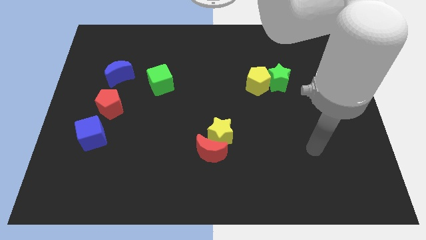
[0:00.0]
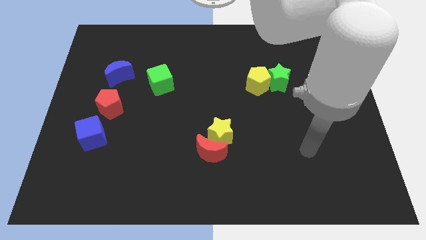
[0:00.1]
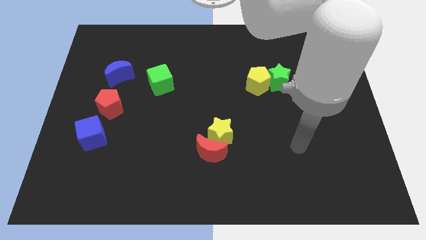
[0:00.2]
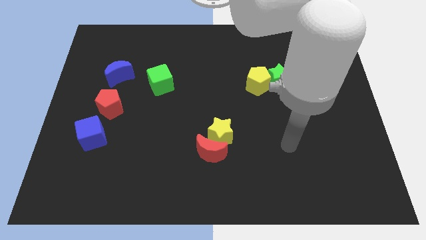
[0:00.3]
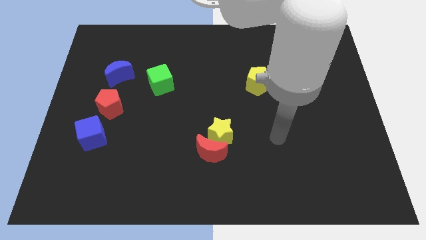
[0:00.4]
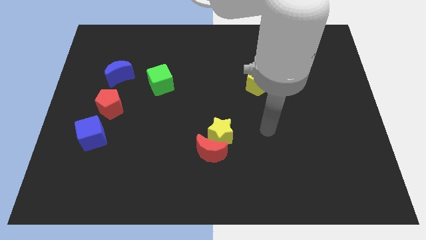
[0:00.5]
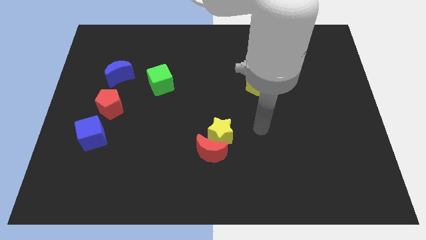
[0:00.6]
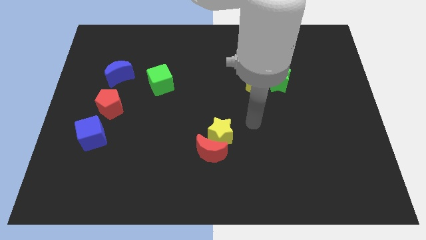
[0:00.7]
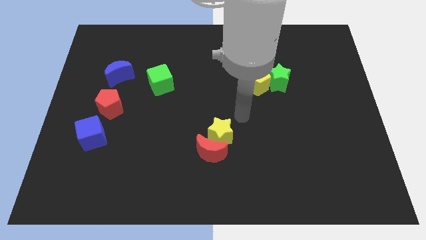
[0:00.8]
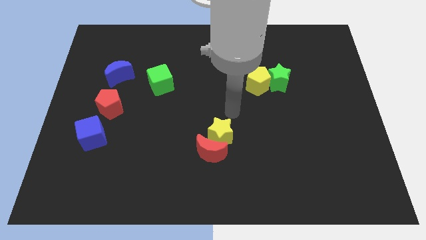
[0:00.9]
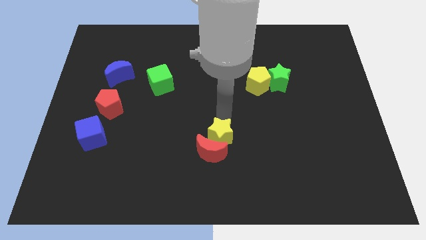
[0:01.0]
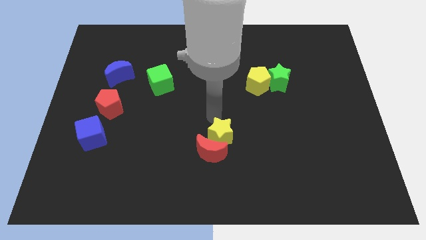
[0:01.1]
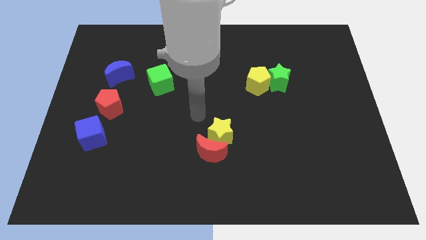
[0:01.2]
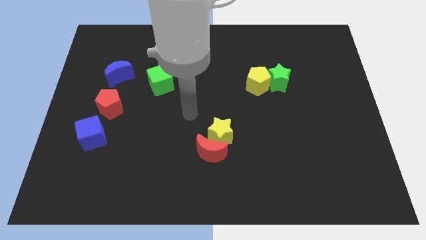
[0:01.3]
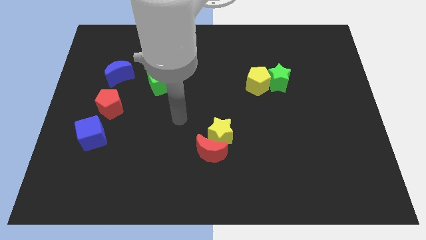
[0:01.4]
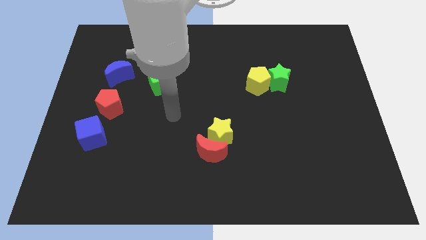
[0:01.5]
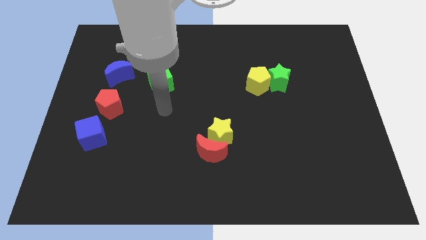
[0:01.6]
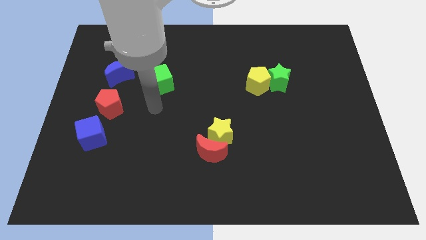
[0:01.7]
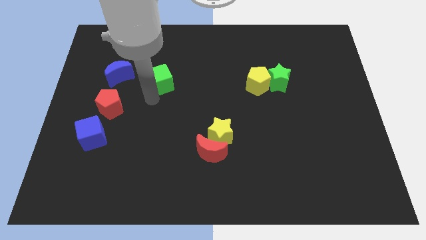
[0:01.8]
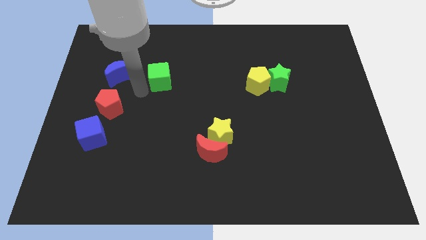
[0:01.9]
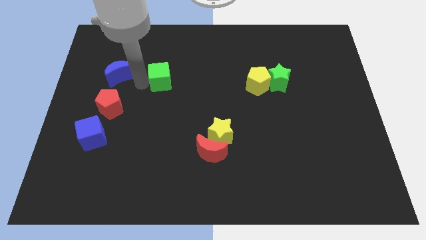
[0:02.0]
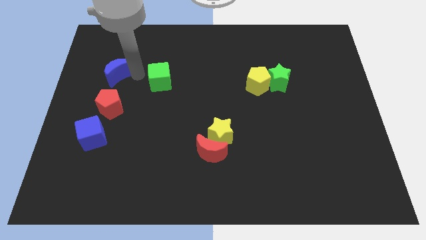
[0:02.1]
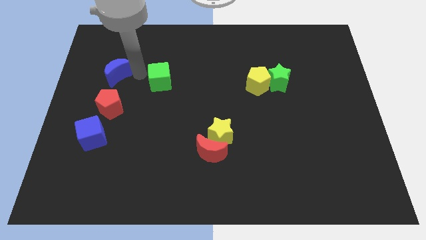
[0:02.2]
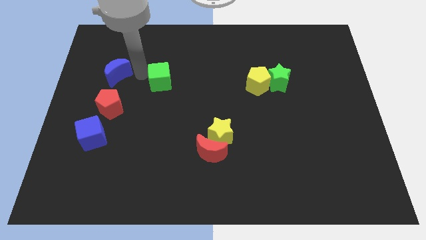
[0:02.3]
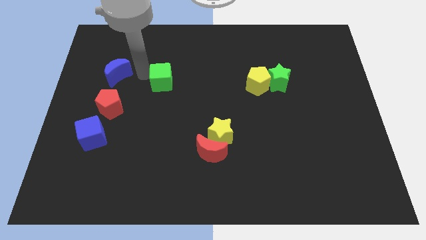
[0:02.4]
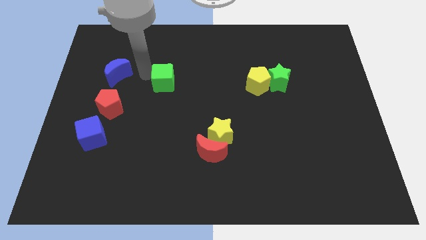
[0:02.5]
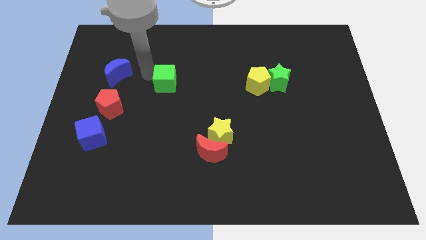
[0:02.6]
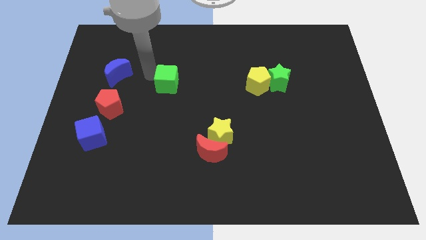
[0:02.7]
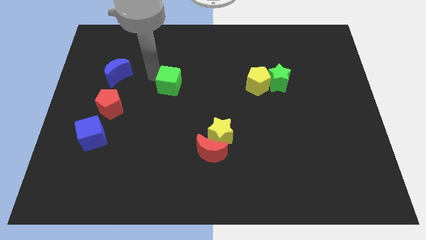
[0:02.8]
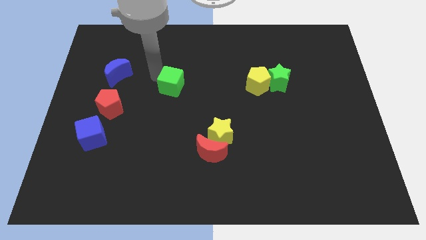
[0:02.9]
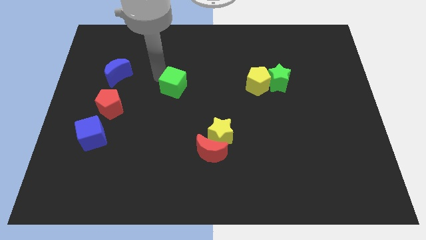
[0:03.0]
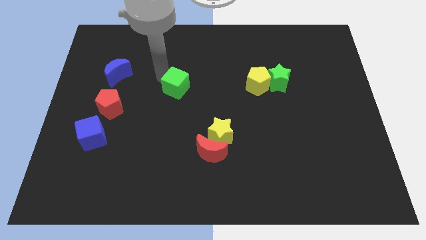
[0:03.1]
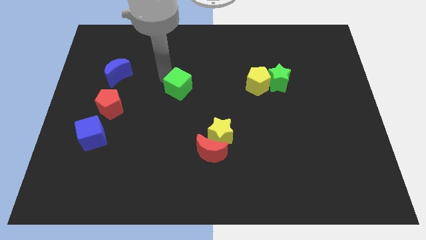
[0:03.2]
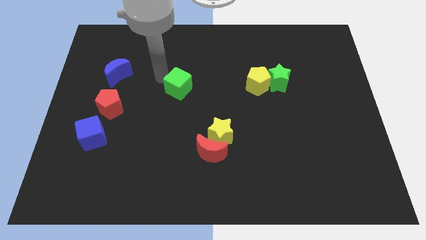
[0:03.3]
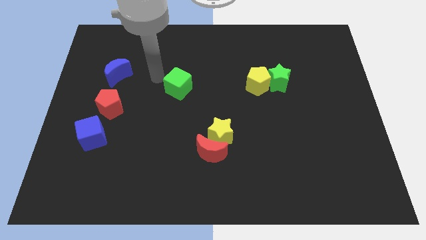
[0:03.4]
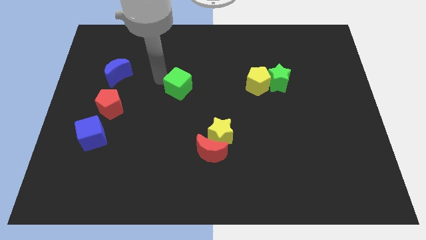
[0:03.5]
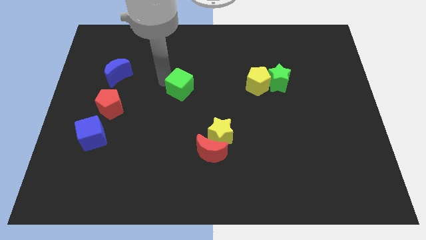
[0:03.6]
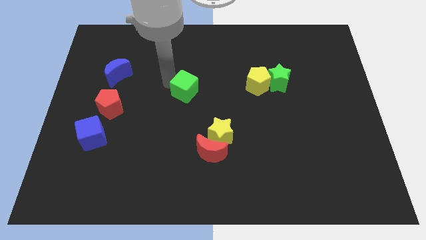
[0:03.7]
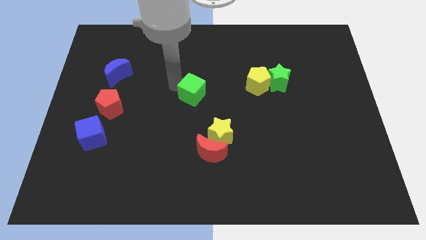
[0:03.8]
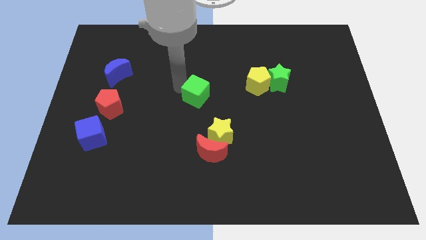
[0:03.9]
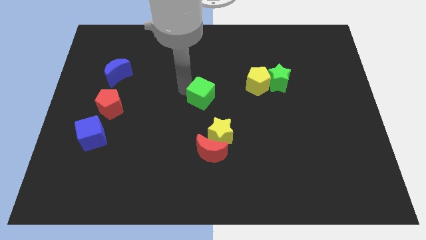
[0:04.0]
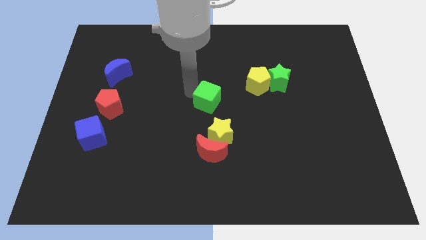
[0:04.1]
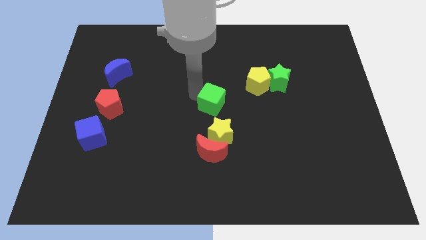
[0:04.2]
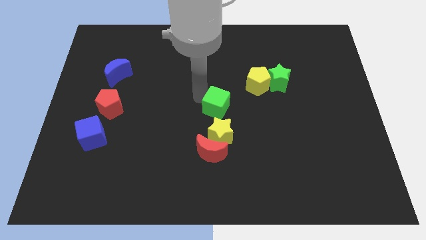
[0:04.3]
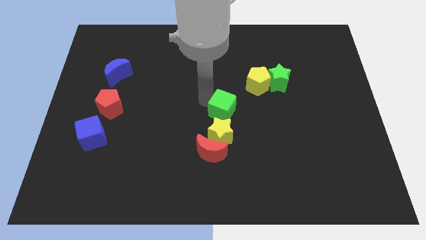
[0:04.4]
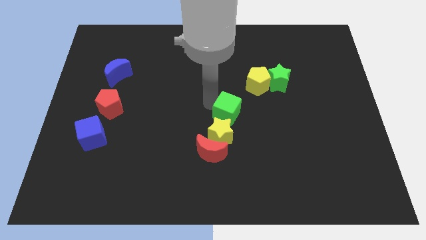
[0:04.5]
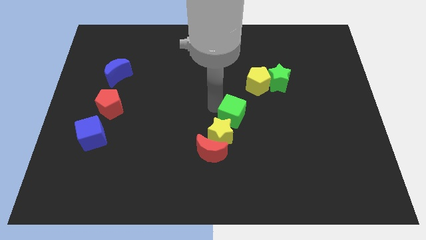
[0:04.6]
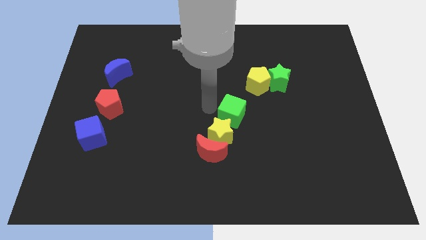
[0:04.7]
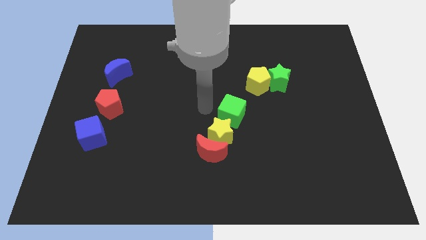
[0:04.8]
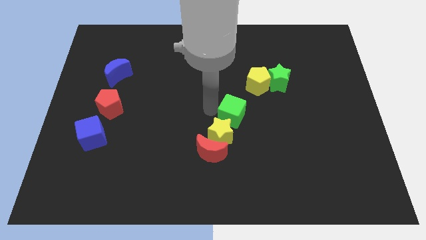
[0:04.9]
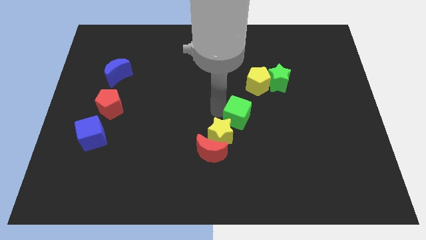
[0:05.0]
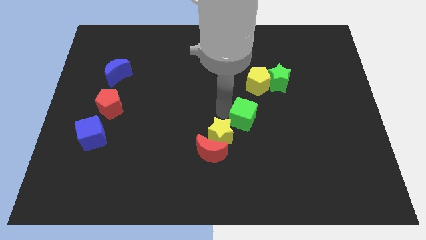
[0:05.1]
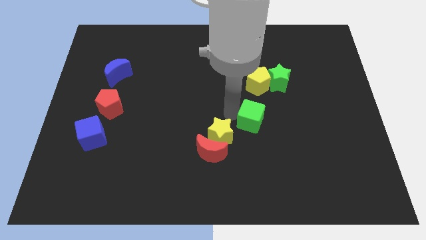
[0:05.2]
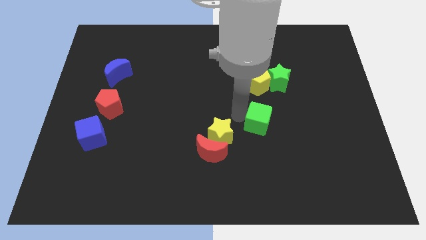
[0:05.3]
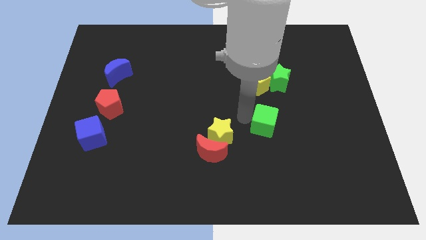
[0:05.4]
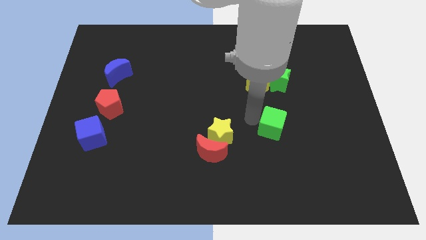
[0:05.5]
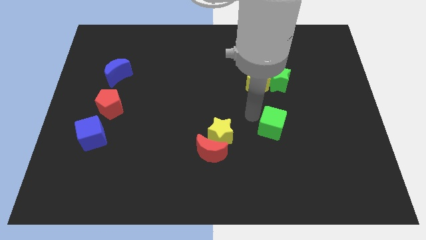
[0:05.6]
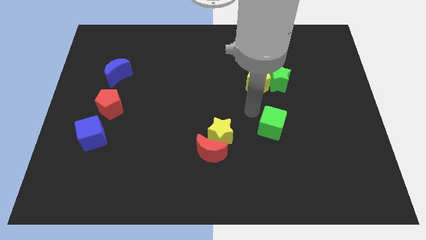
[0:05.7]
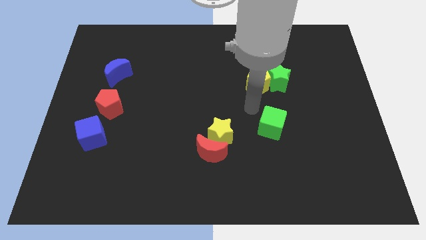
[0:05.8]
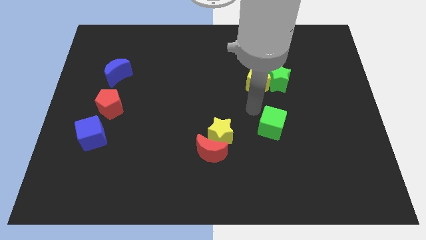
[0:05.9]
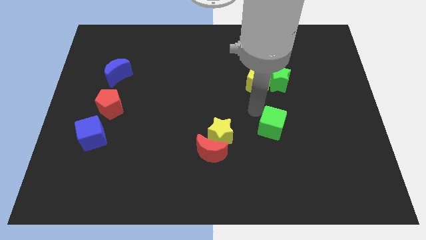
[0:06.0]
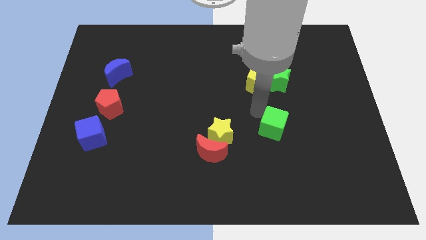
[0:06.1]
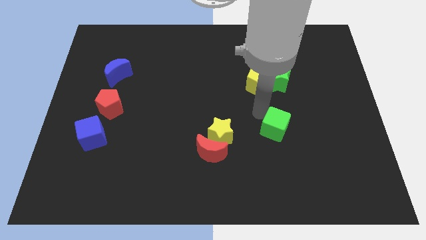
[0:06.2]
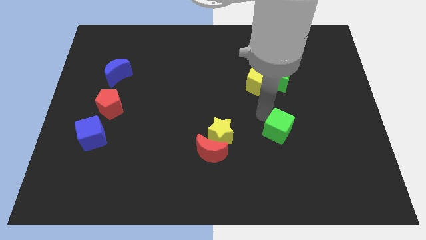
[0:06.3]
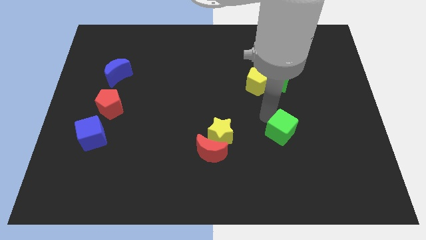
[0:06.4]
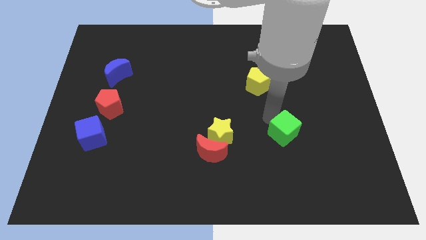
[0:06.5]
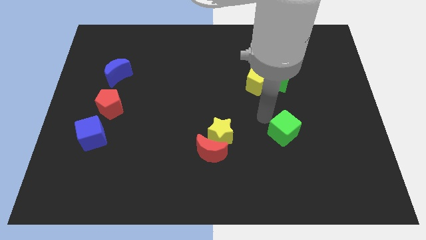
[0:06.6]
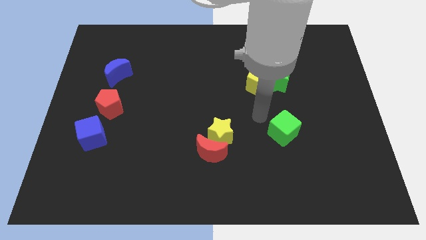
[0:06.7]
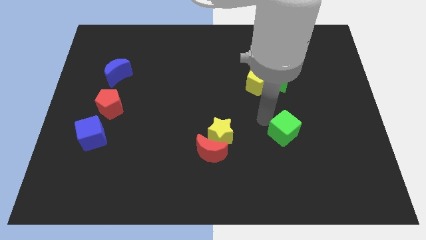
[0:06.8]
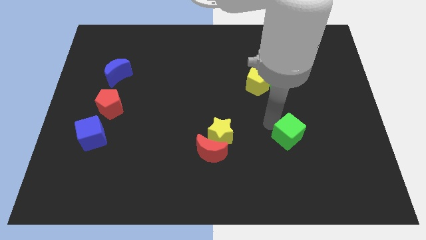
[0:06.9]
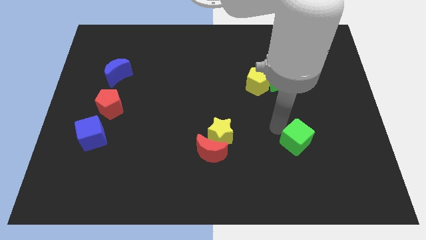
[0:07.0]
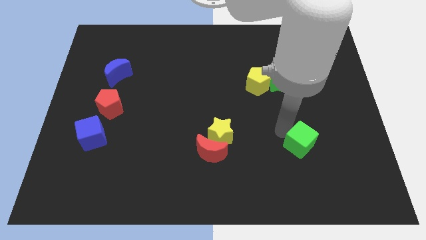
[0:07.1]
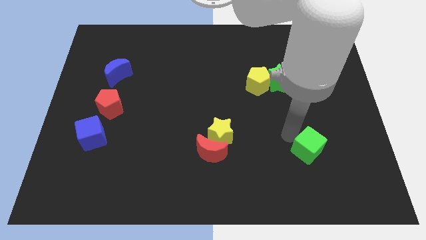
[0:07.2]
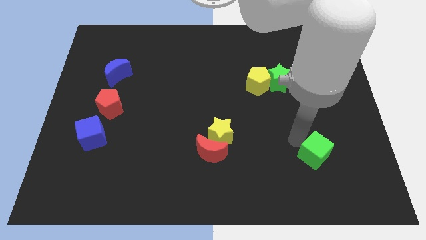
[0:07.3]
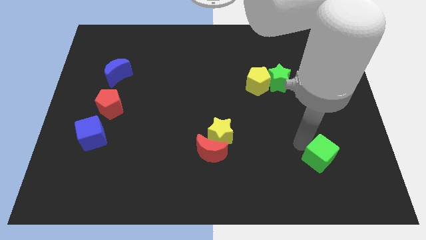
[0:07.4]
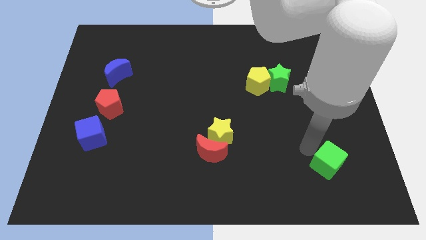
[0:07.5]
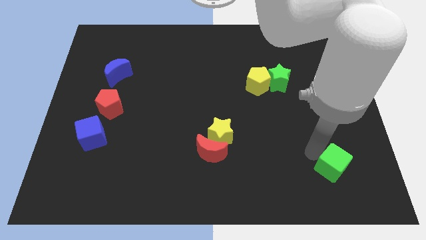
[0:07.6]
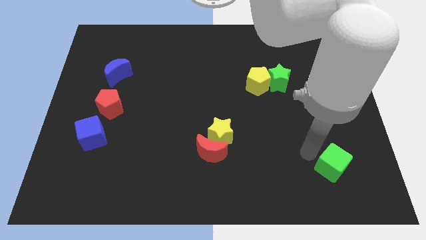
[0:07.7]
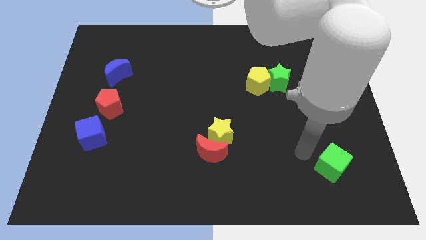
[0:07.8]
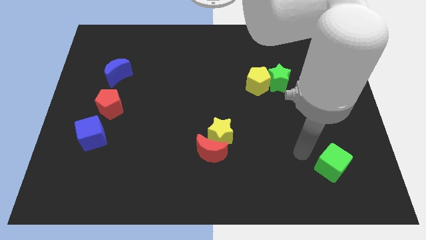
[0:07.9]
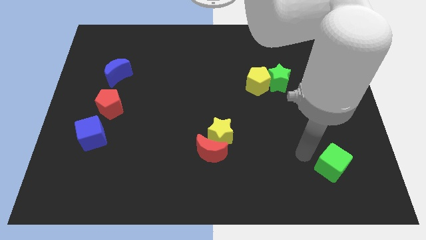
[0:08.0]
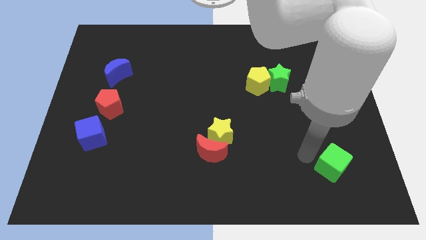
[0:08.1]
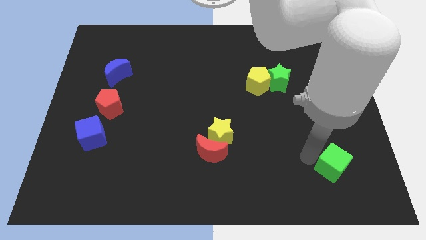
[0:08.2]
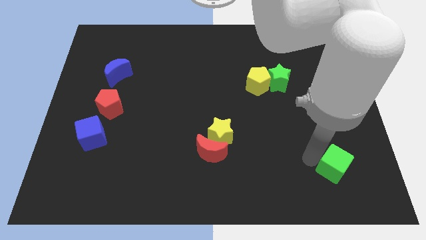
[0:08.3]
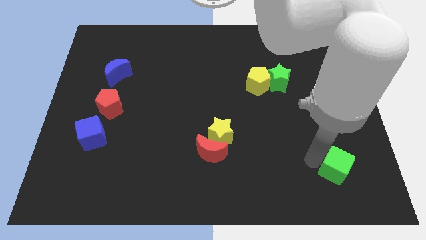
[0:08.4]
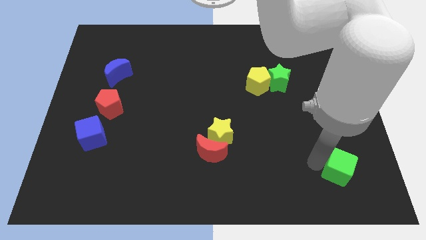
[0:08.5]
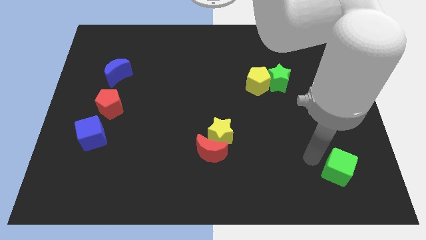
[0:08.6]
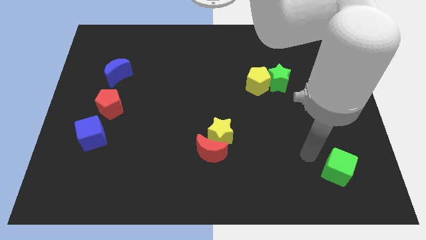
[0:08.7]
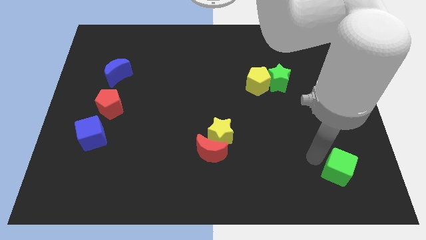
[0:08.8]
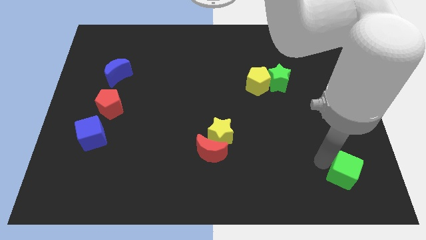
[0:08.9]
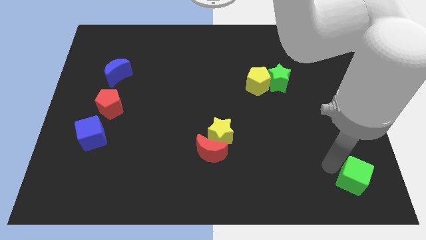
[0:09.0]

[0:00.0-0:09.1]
slide the green cube to the bottom right of the board
